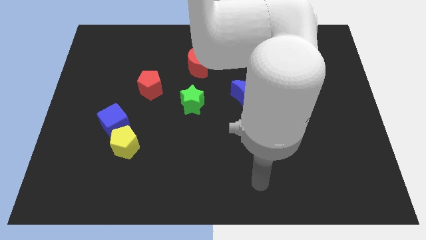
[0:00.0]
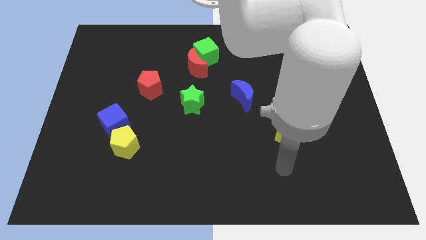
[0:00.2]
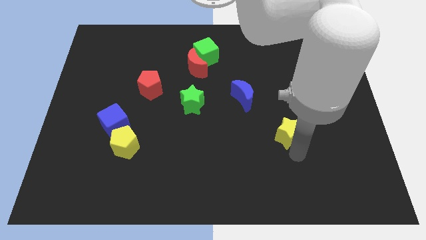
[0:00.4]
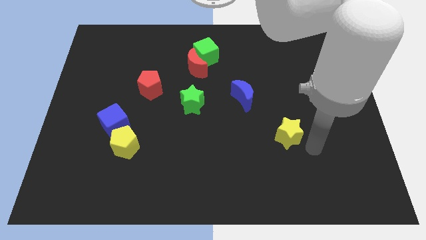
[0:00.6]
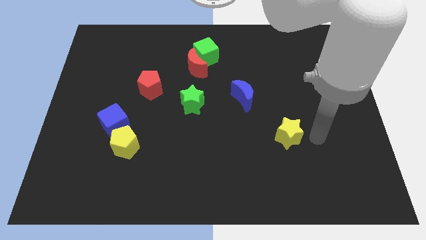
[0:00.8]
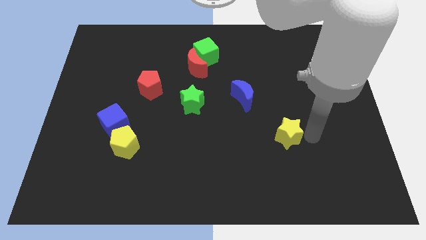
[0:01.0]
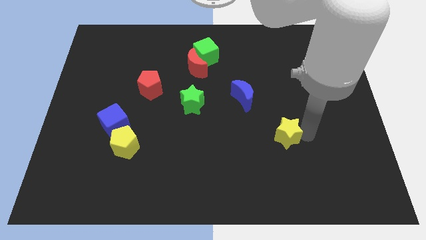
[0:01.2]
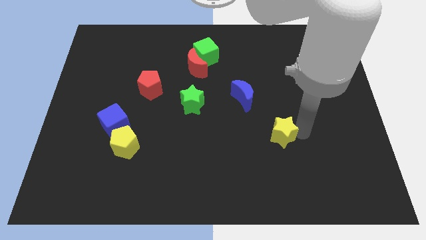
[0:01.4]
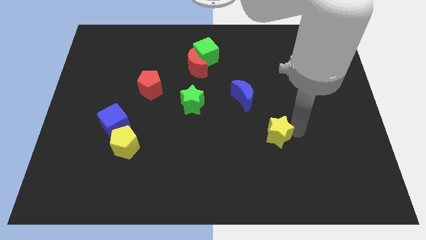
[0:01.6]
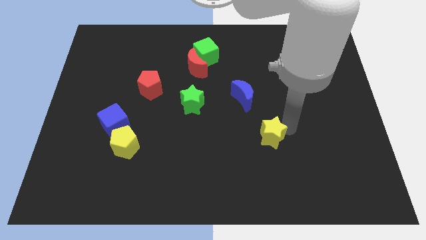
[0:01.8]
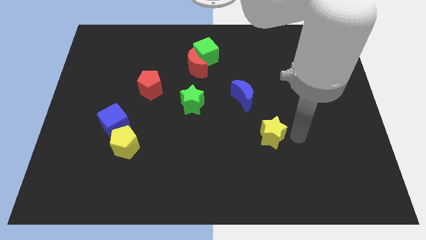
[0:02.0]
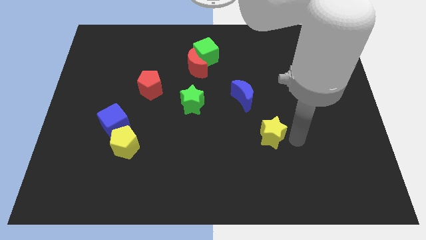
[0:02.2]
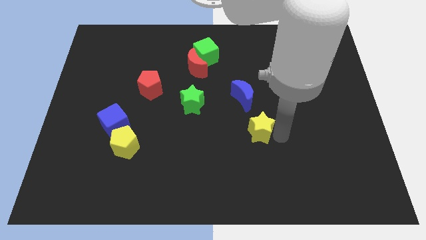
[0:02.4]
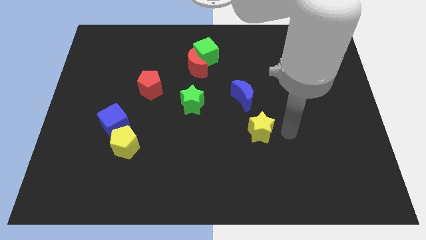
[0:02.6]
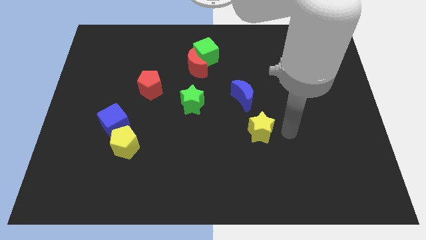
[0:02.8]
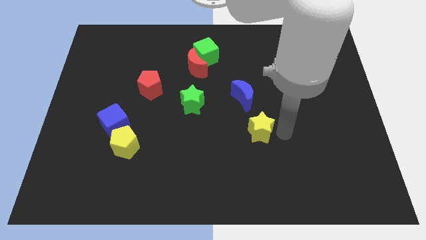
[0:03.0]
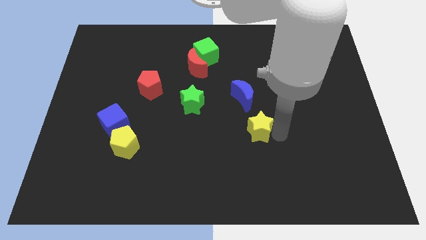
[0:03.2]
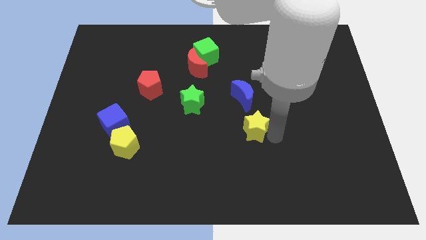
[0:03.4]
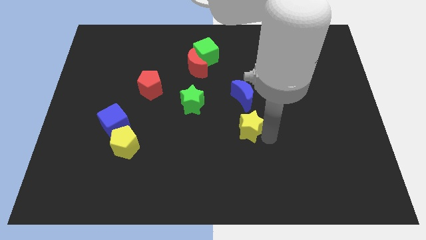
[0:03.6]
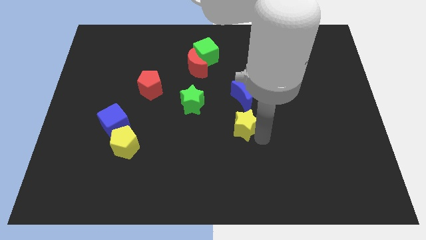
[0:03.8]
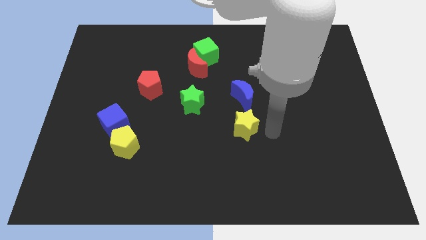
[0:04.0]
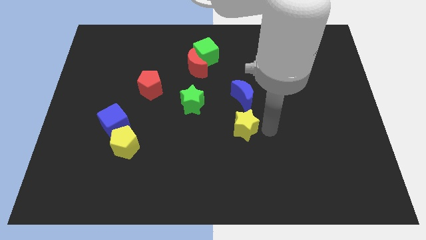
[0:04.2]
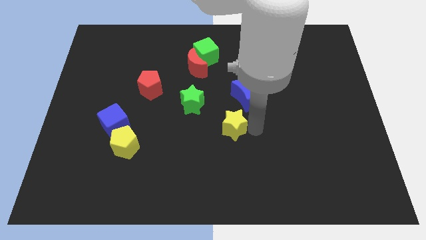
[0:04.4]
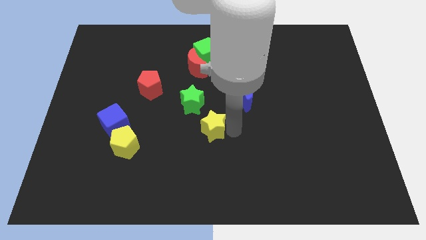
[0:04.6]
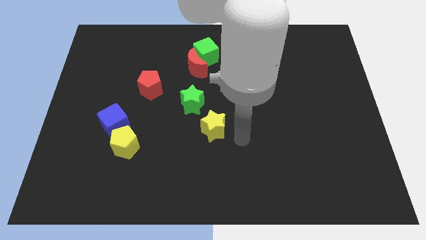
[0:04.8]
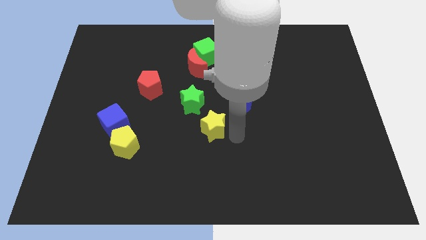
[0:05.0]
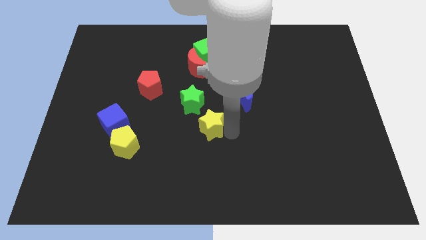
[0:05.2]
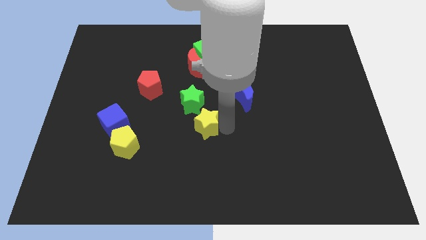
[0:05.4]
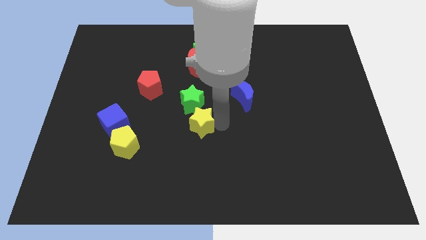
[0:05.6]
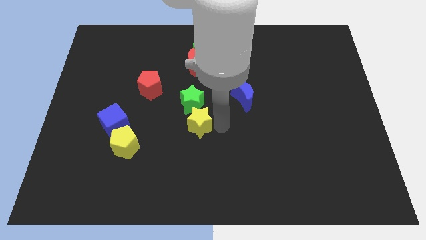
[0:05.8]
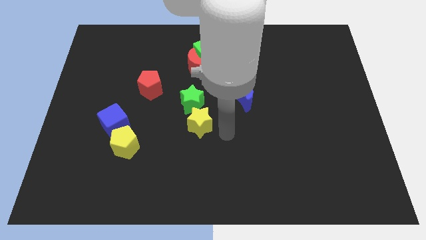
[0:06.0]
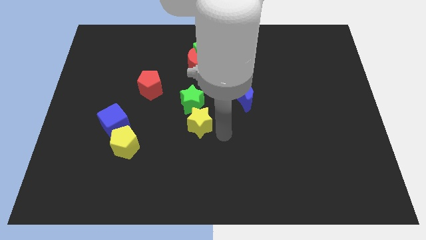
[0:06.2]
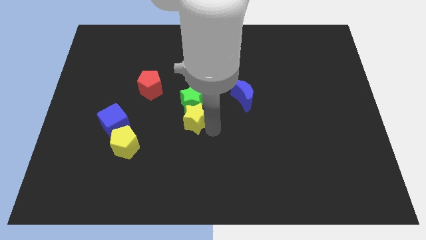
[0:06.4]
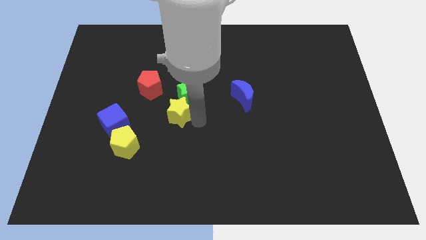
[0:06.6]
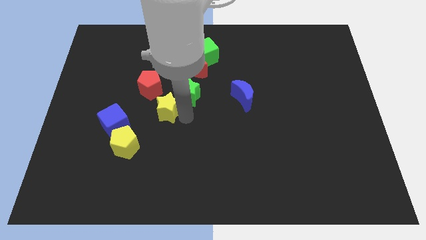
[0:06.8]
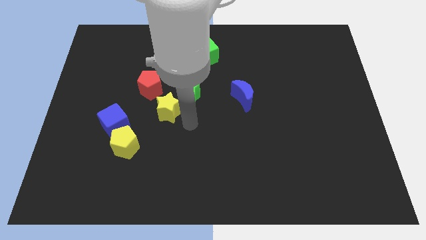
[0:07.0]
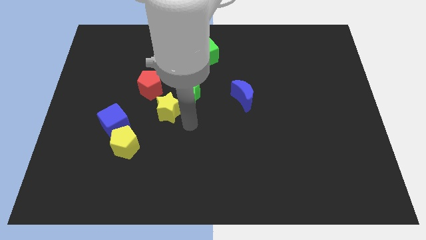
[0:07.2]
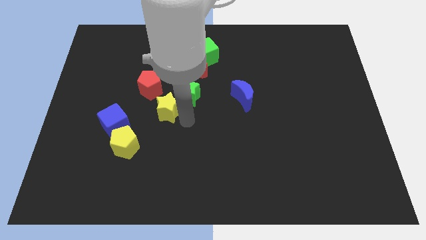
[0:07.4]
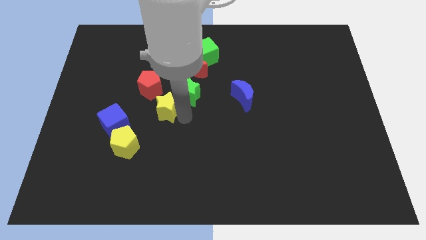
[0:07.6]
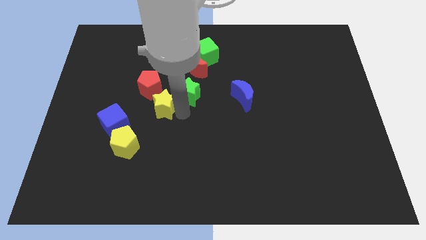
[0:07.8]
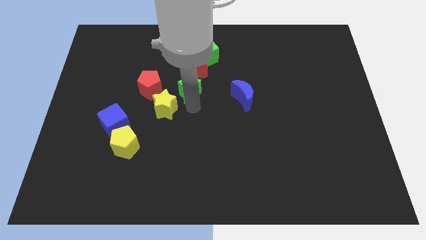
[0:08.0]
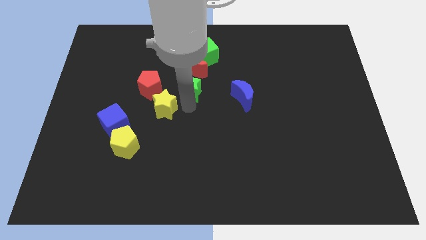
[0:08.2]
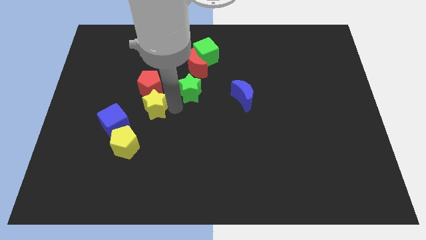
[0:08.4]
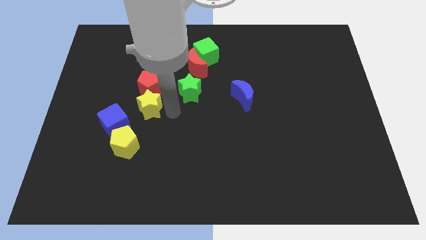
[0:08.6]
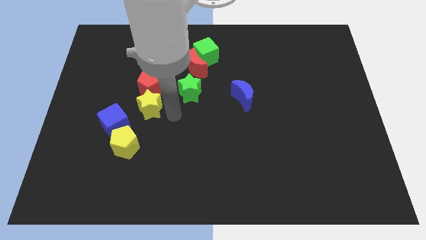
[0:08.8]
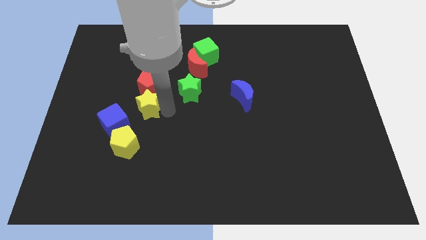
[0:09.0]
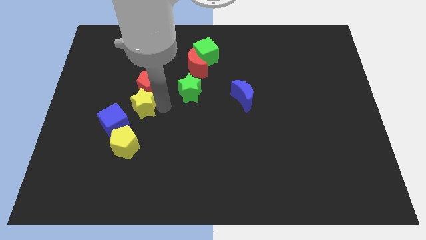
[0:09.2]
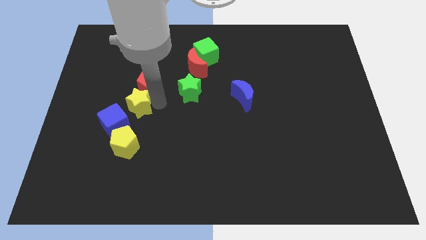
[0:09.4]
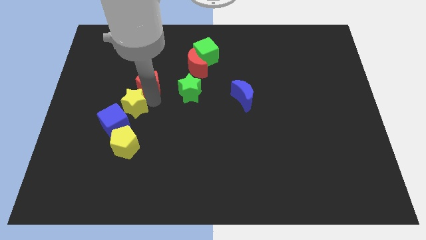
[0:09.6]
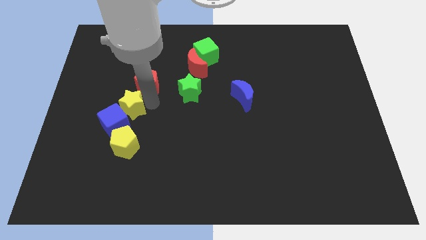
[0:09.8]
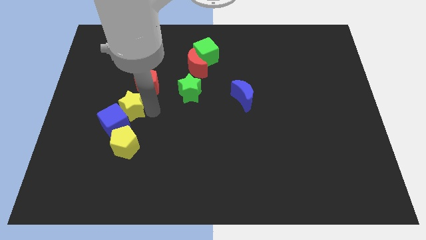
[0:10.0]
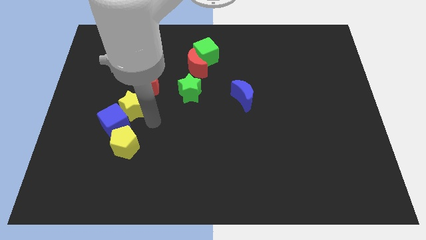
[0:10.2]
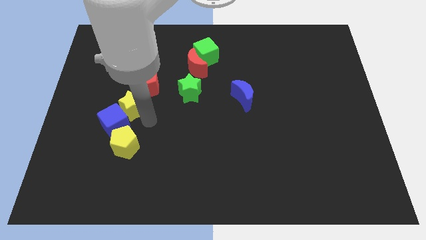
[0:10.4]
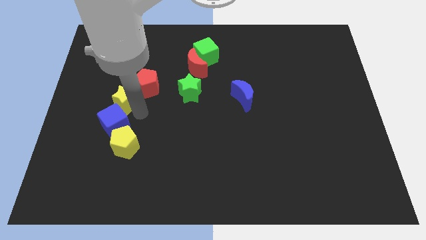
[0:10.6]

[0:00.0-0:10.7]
slide the yellow star left of the red pentagon

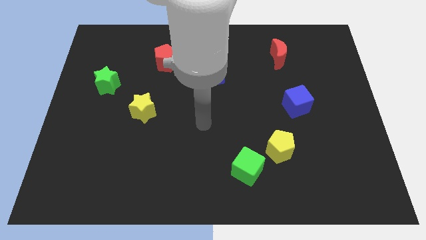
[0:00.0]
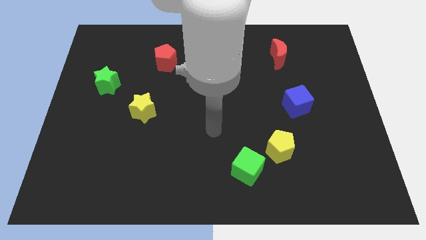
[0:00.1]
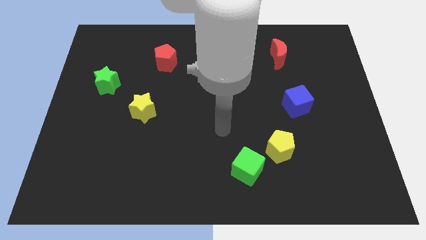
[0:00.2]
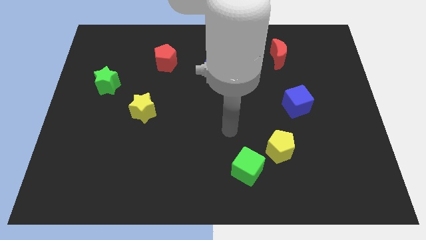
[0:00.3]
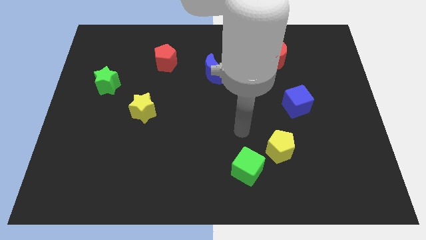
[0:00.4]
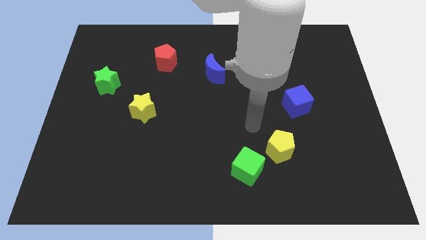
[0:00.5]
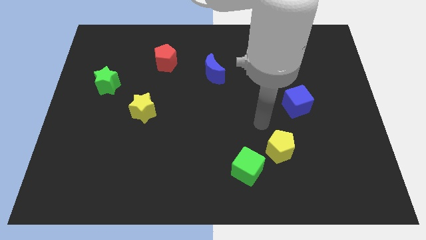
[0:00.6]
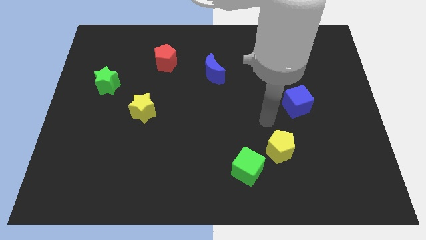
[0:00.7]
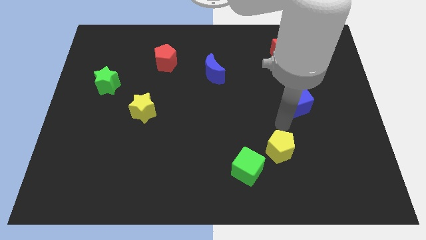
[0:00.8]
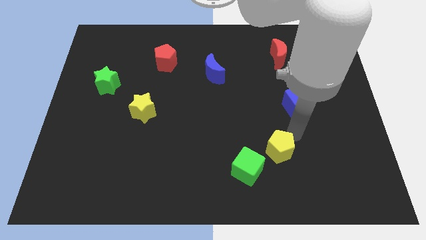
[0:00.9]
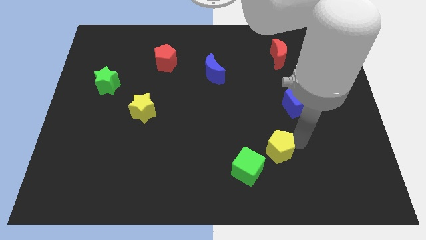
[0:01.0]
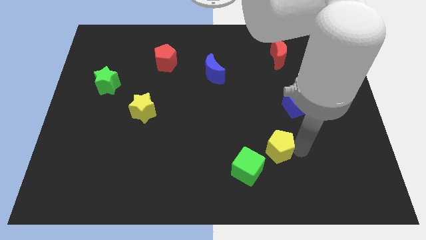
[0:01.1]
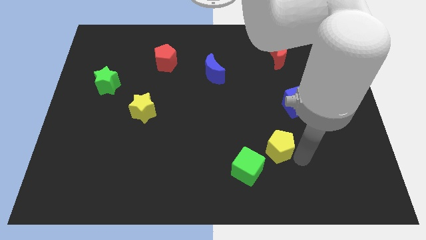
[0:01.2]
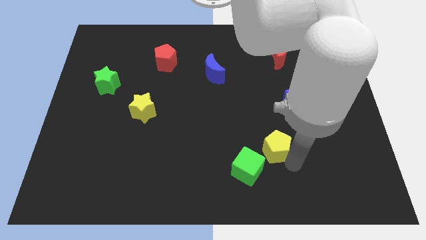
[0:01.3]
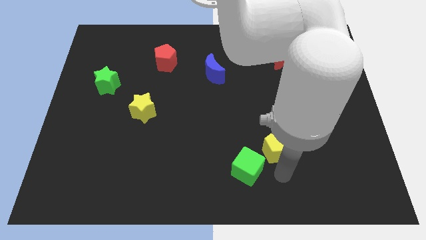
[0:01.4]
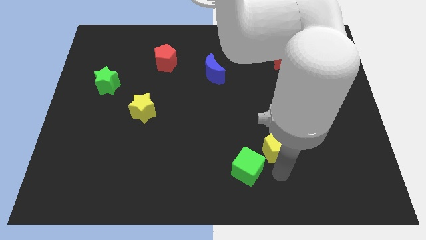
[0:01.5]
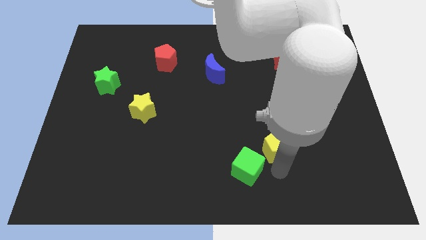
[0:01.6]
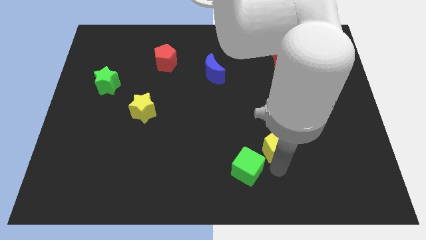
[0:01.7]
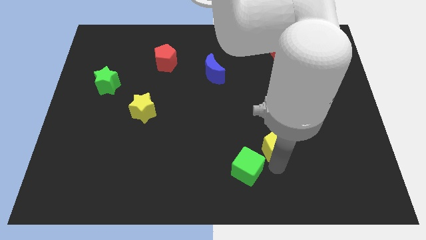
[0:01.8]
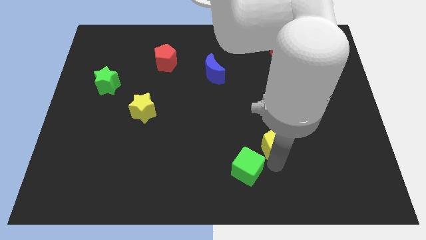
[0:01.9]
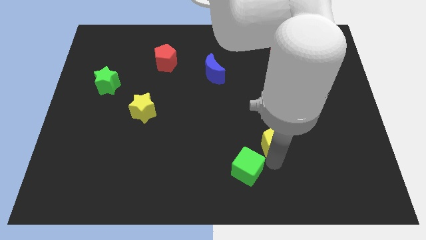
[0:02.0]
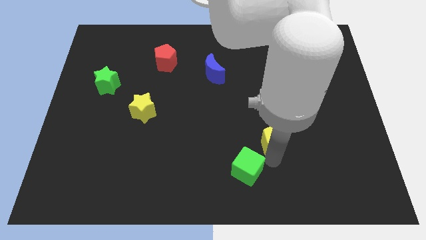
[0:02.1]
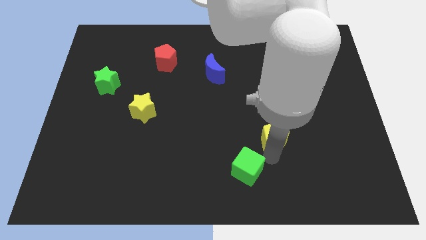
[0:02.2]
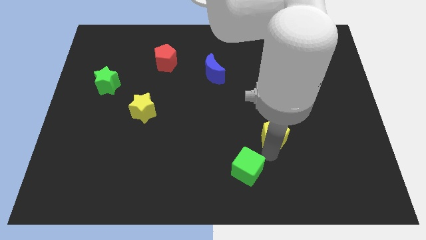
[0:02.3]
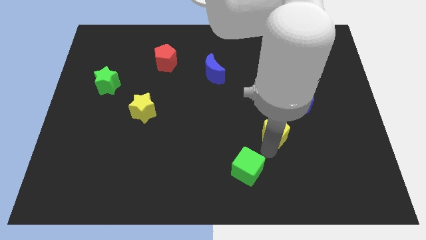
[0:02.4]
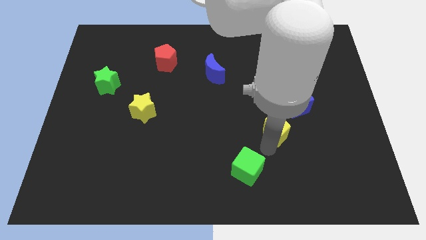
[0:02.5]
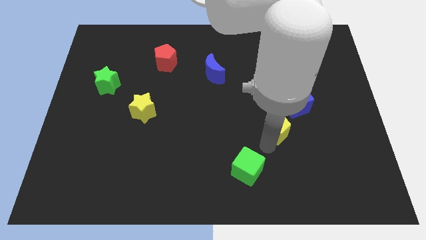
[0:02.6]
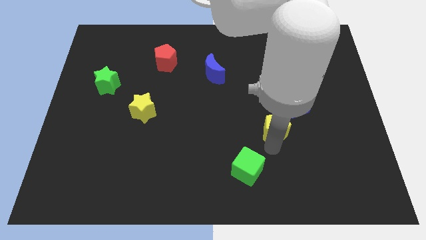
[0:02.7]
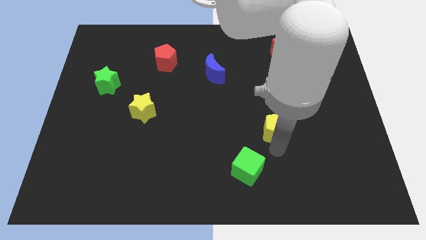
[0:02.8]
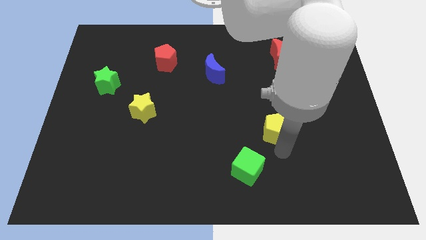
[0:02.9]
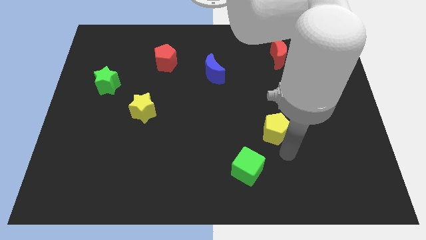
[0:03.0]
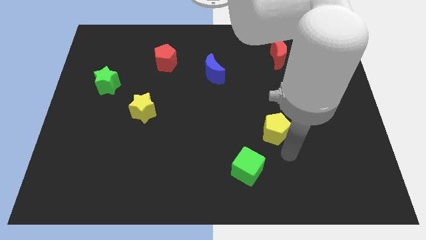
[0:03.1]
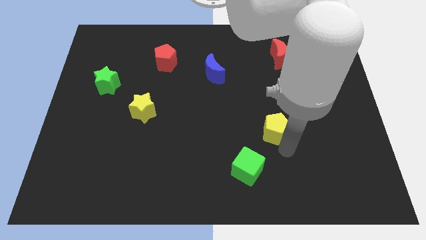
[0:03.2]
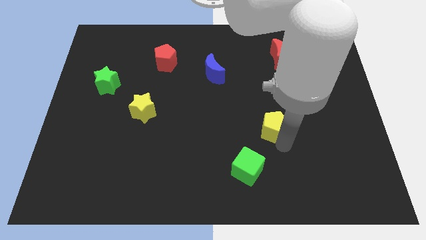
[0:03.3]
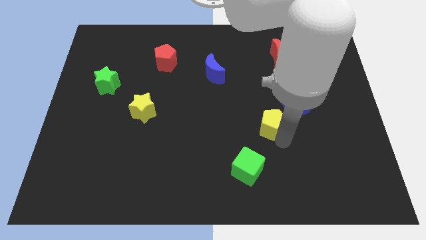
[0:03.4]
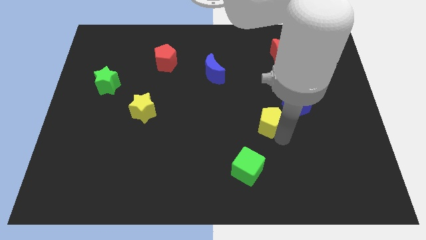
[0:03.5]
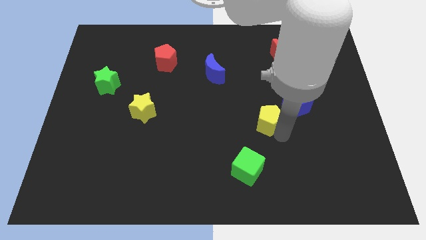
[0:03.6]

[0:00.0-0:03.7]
move the yellow pentagon left of the blue cube
